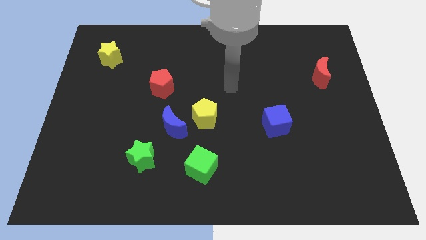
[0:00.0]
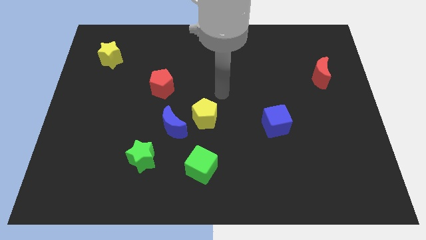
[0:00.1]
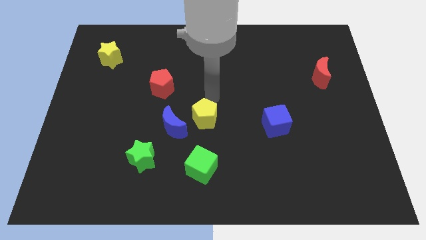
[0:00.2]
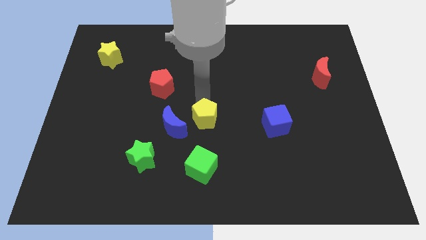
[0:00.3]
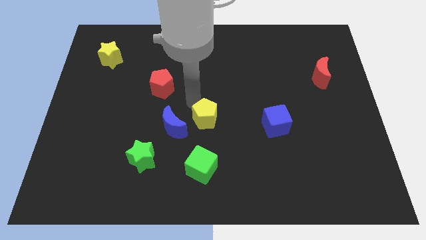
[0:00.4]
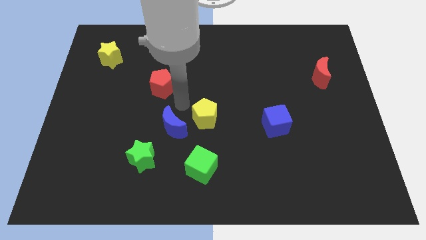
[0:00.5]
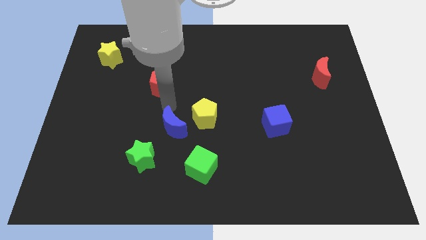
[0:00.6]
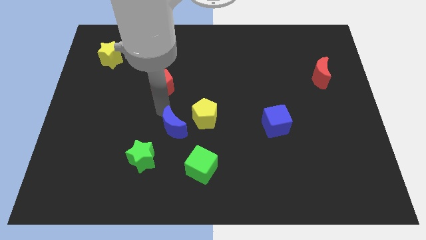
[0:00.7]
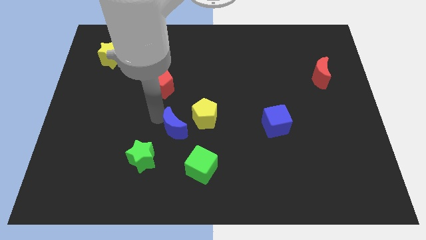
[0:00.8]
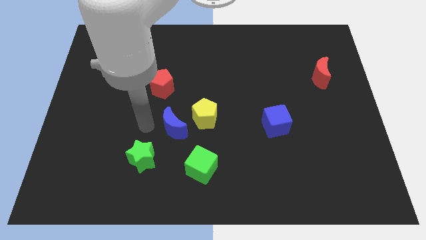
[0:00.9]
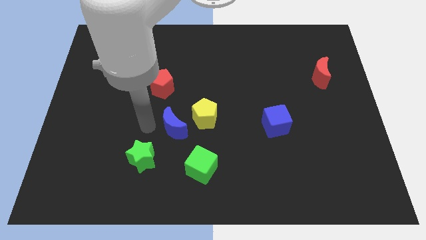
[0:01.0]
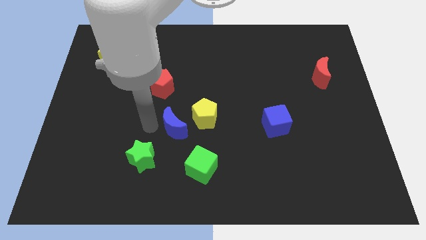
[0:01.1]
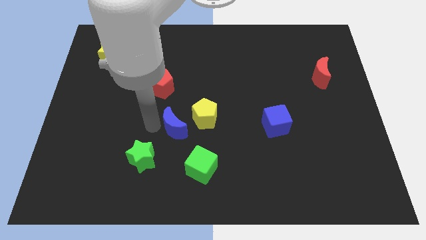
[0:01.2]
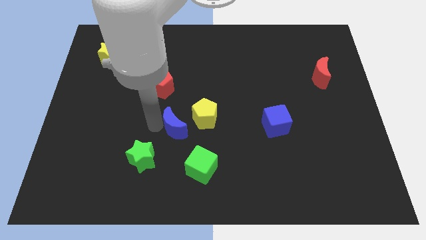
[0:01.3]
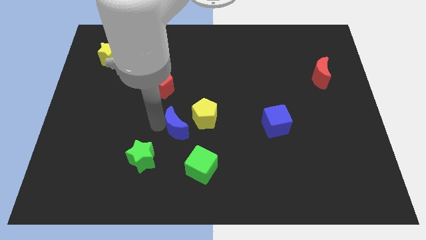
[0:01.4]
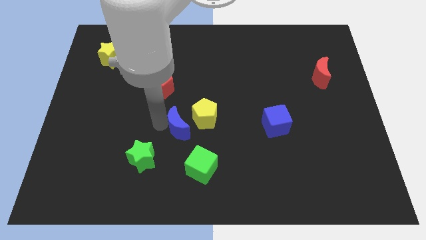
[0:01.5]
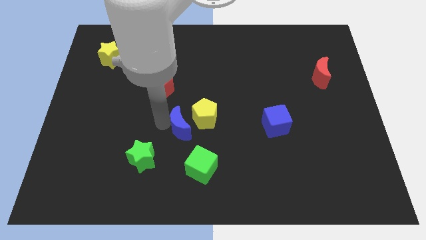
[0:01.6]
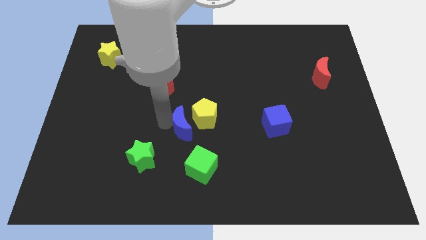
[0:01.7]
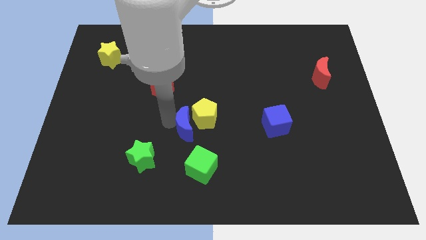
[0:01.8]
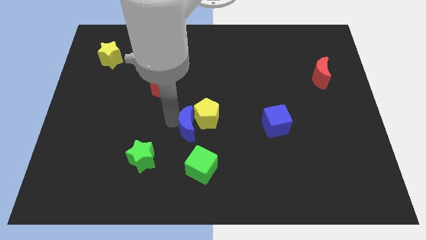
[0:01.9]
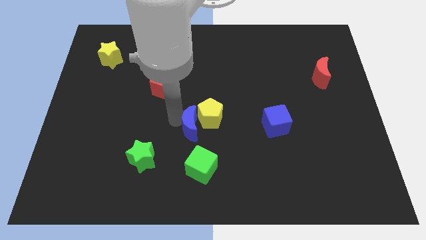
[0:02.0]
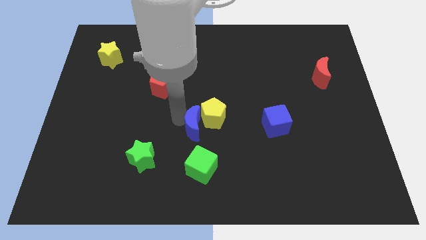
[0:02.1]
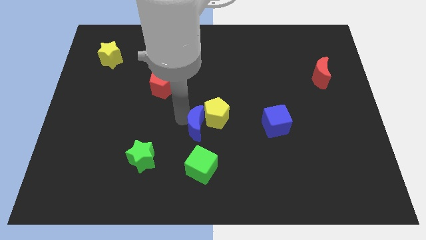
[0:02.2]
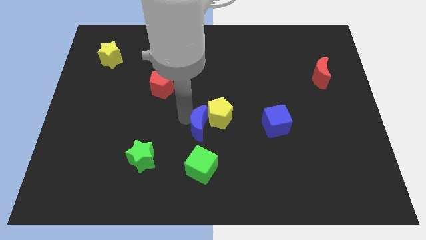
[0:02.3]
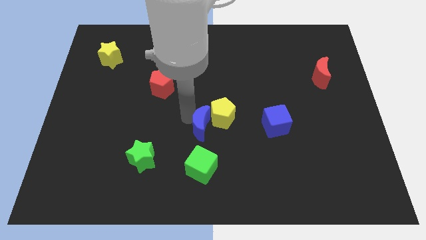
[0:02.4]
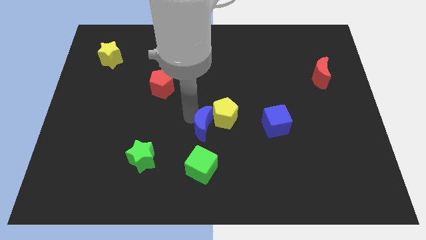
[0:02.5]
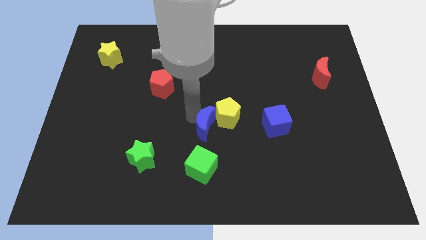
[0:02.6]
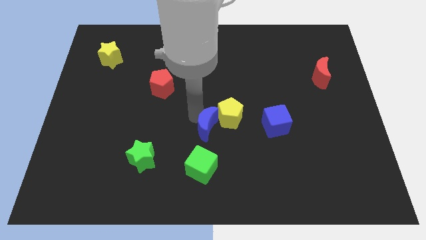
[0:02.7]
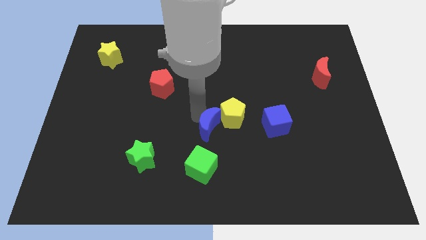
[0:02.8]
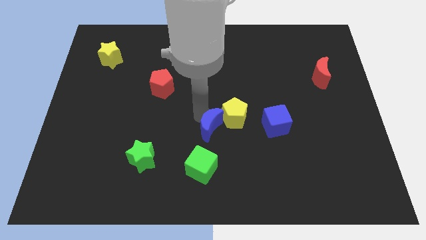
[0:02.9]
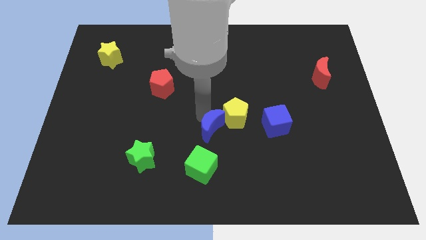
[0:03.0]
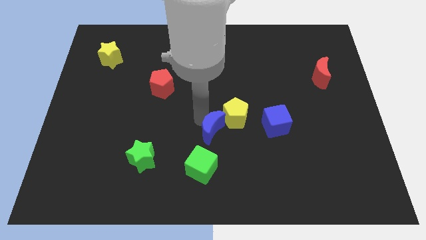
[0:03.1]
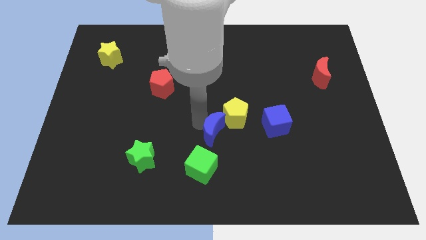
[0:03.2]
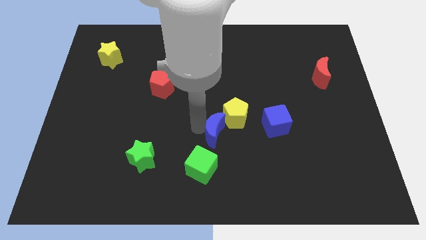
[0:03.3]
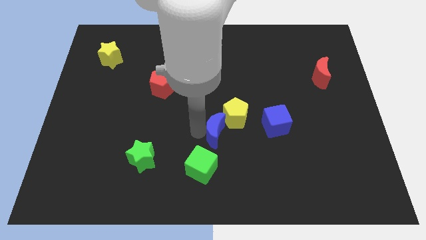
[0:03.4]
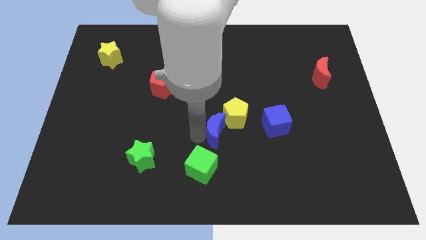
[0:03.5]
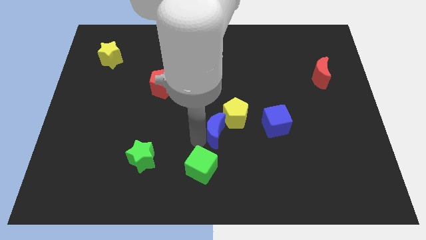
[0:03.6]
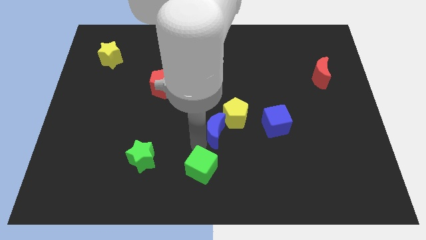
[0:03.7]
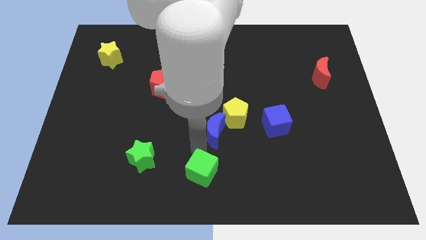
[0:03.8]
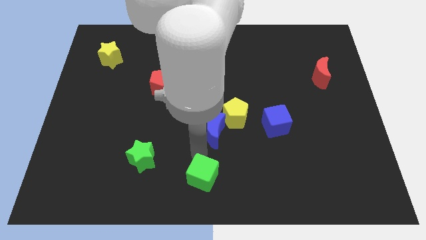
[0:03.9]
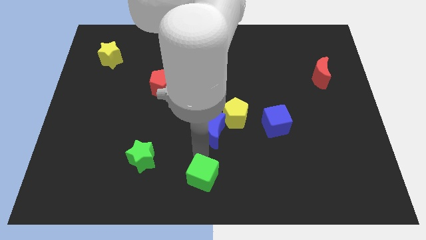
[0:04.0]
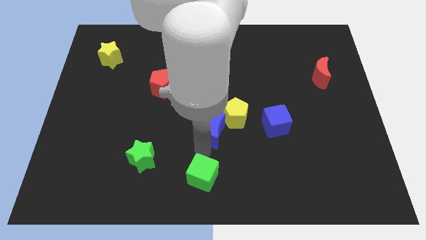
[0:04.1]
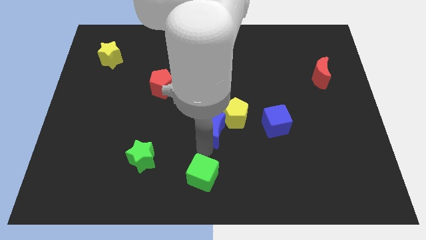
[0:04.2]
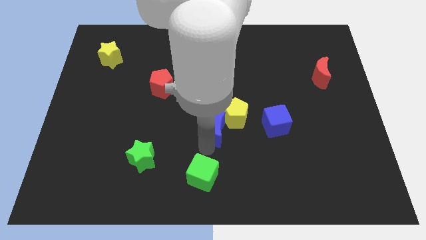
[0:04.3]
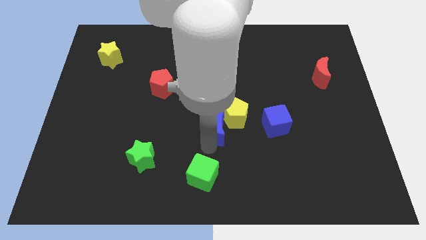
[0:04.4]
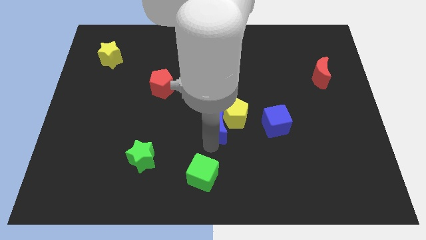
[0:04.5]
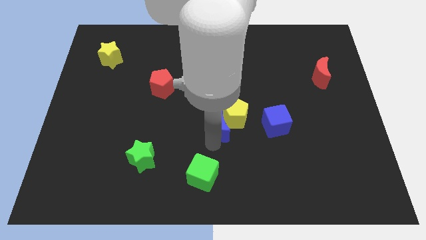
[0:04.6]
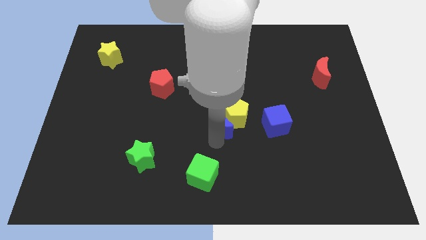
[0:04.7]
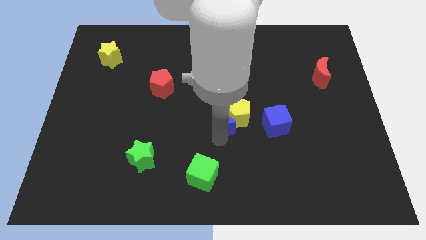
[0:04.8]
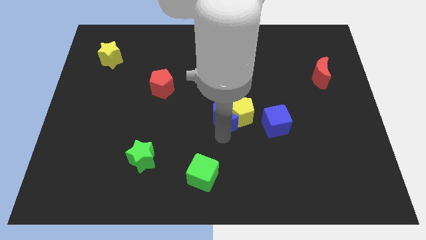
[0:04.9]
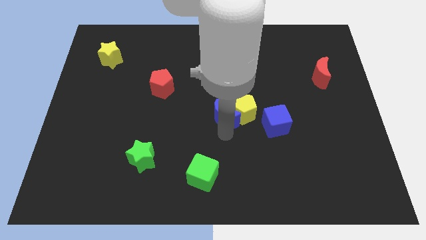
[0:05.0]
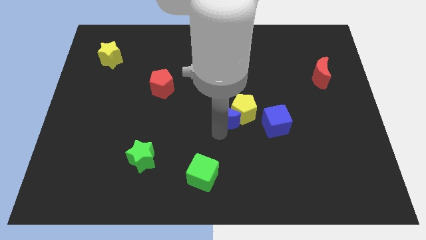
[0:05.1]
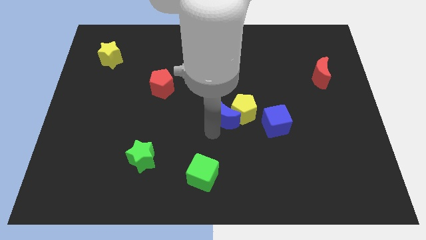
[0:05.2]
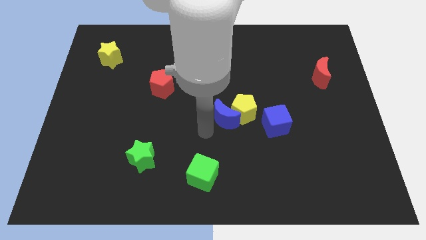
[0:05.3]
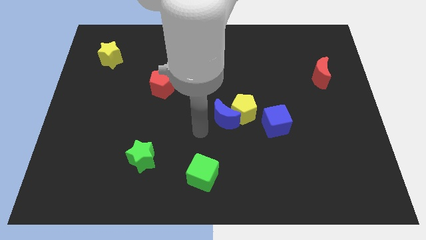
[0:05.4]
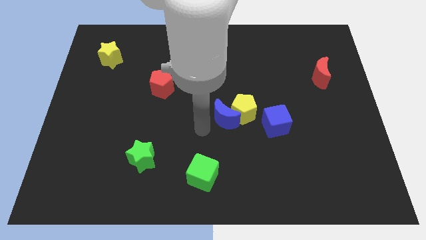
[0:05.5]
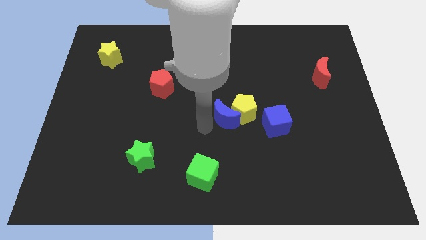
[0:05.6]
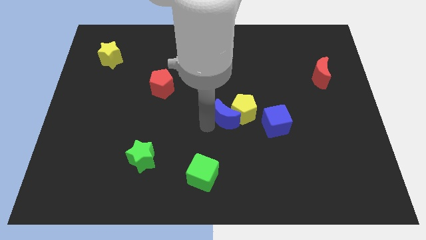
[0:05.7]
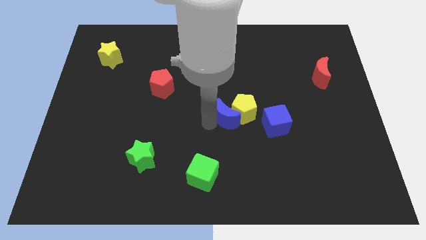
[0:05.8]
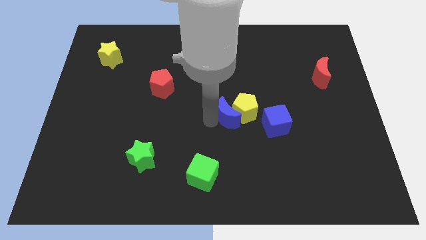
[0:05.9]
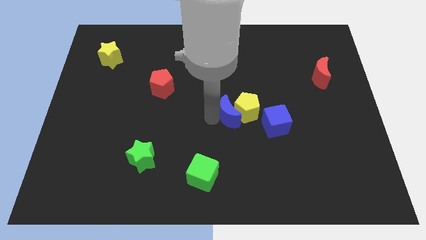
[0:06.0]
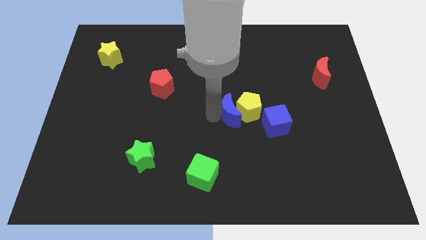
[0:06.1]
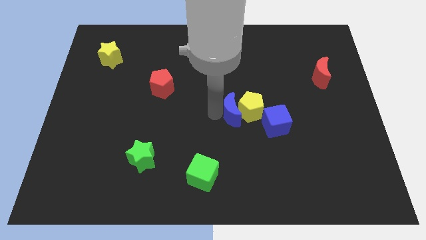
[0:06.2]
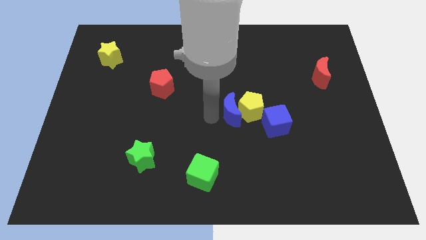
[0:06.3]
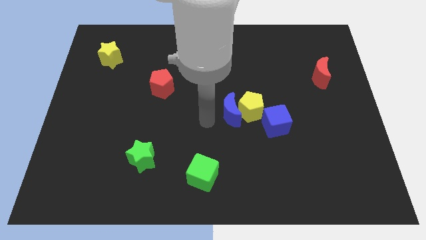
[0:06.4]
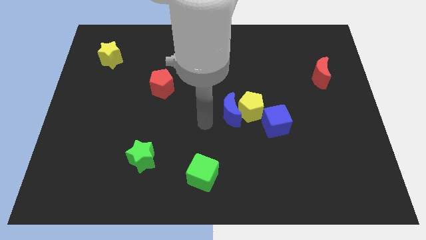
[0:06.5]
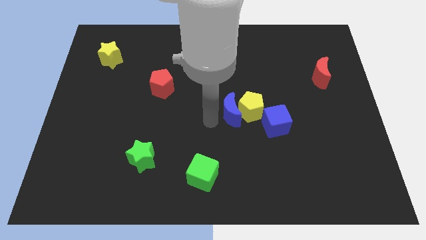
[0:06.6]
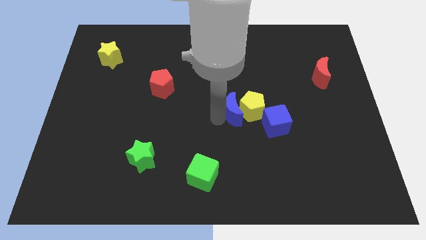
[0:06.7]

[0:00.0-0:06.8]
slide the blue moon diagonally up and to the left of the blue cube

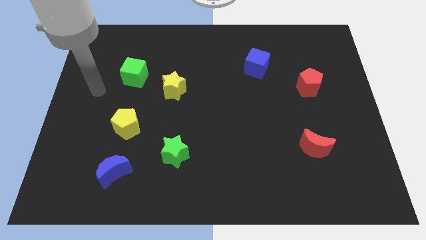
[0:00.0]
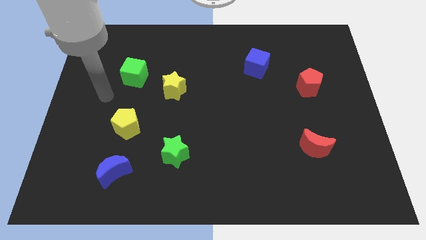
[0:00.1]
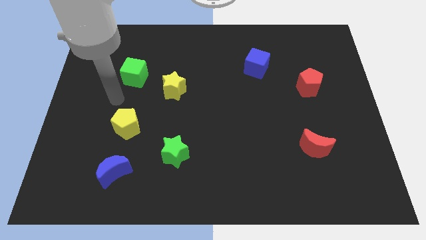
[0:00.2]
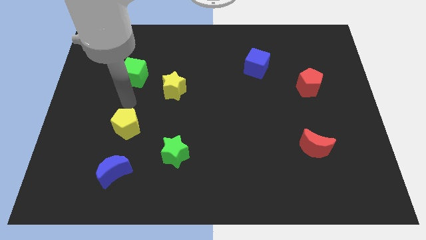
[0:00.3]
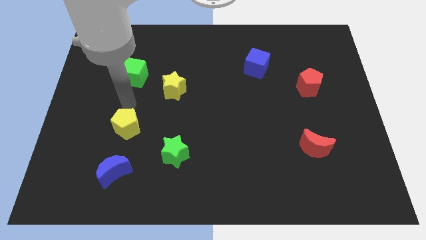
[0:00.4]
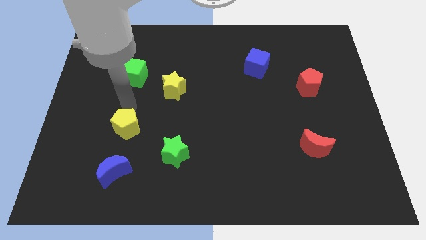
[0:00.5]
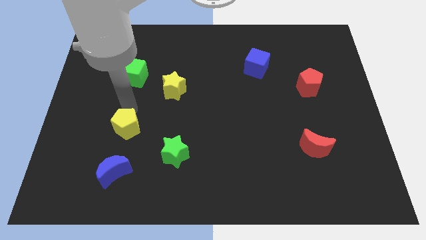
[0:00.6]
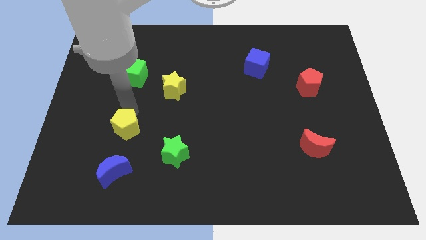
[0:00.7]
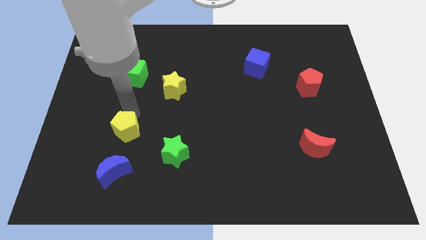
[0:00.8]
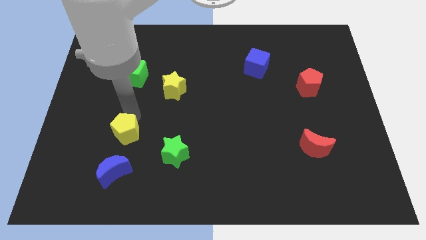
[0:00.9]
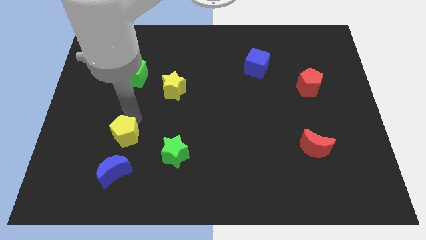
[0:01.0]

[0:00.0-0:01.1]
push the yellow pentagon left of the green star
